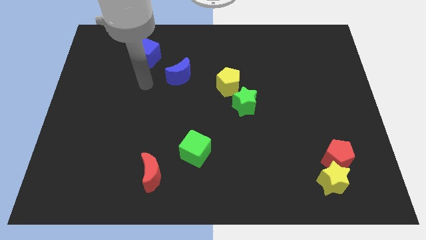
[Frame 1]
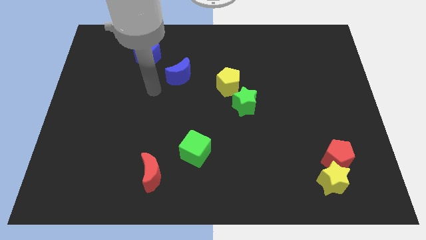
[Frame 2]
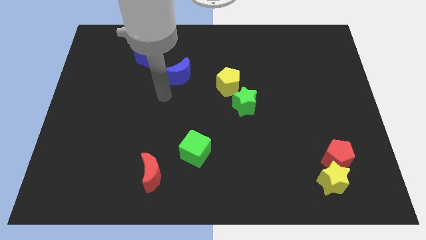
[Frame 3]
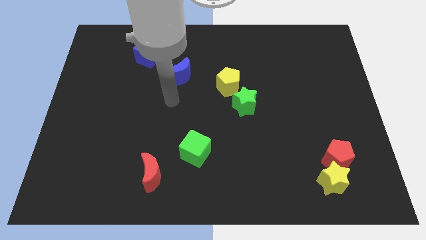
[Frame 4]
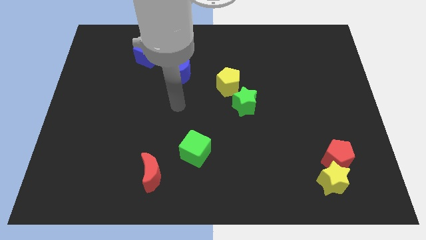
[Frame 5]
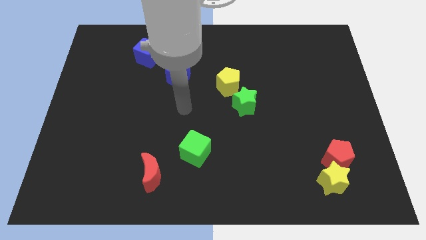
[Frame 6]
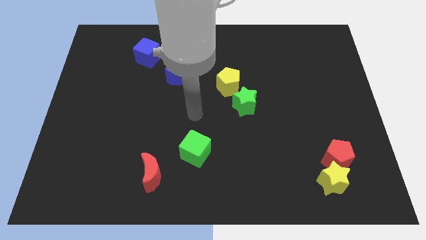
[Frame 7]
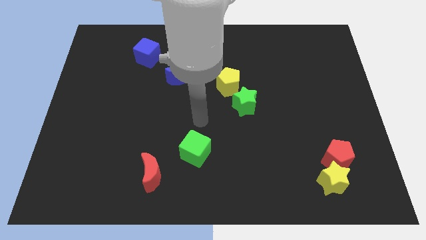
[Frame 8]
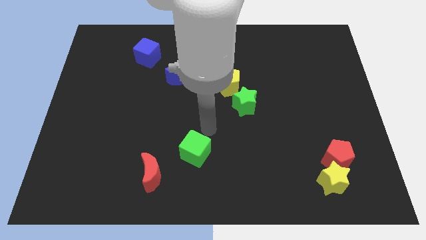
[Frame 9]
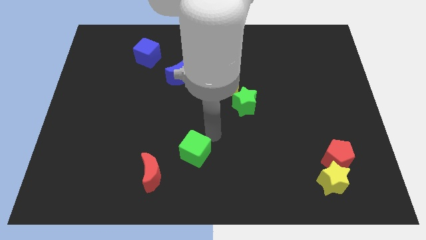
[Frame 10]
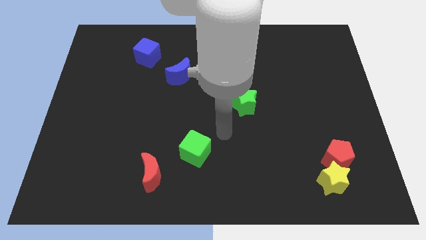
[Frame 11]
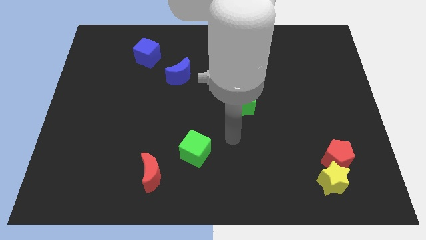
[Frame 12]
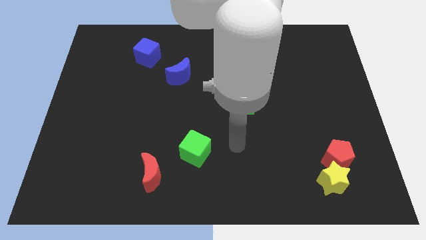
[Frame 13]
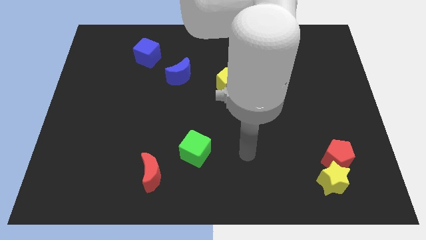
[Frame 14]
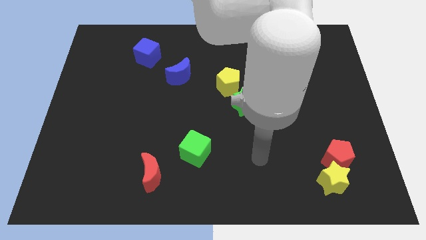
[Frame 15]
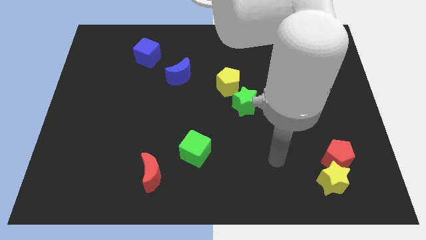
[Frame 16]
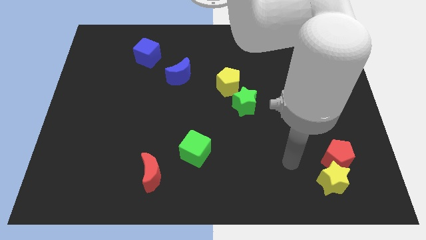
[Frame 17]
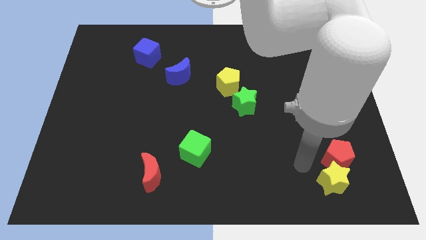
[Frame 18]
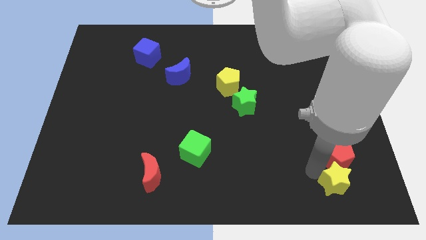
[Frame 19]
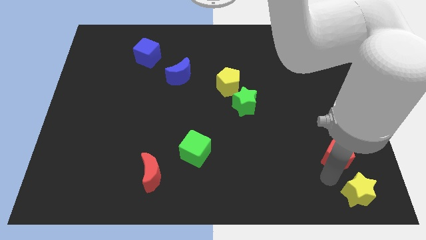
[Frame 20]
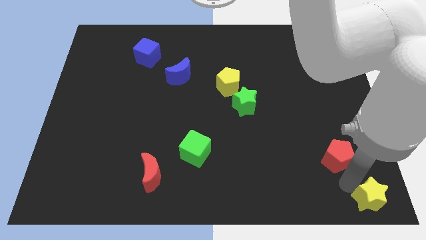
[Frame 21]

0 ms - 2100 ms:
separate the red pentagon from the yellow star

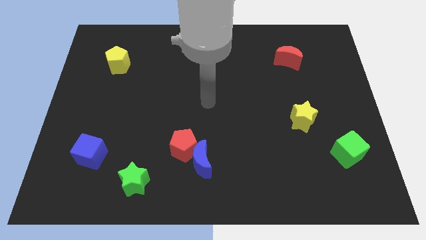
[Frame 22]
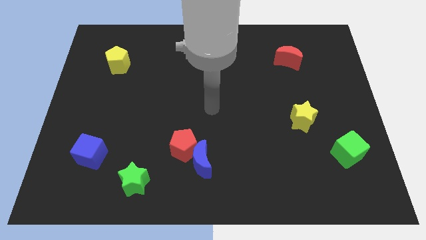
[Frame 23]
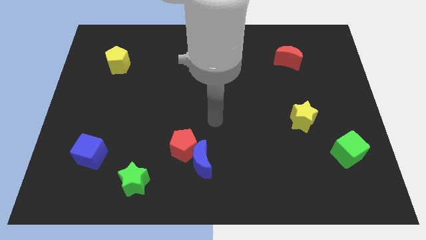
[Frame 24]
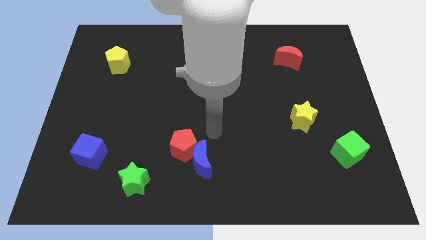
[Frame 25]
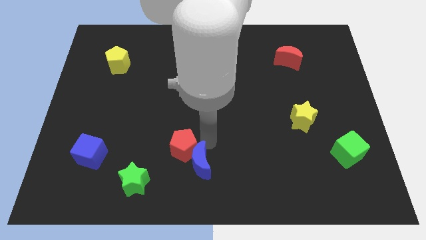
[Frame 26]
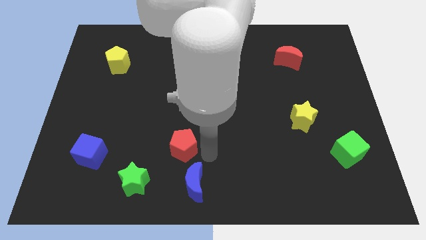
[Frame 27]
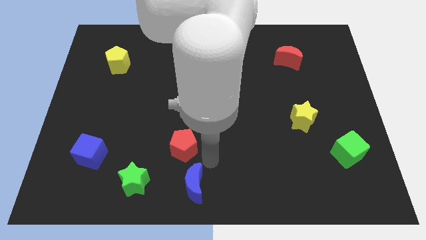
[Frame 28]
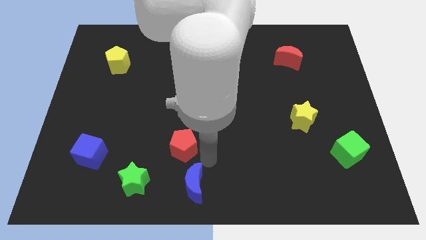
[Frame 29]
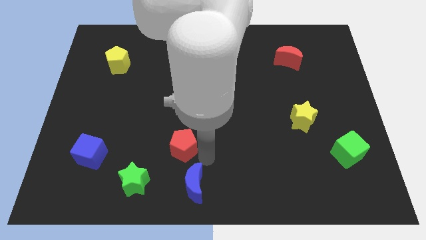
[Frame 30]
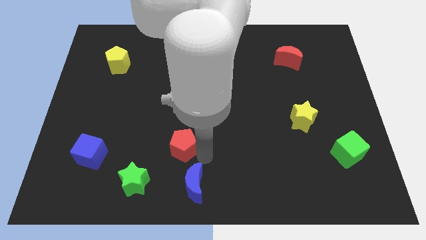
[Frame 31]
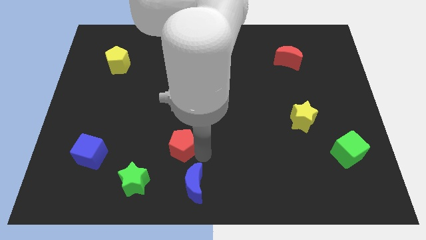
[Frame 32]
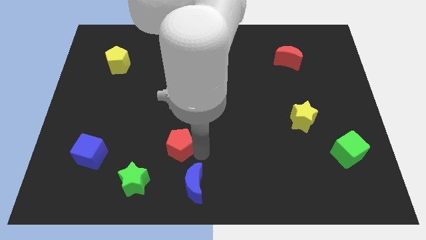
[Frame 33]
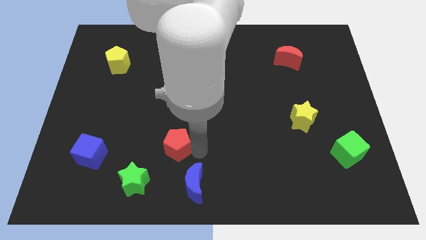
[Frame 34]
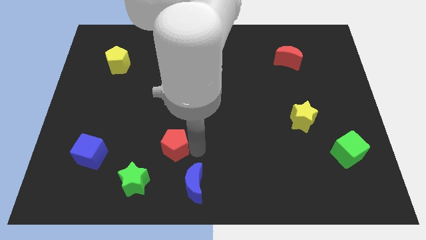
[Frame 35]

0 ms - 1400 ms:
separate the red pentagon from the blue moon

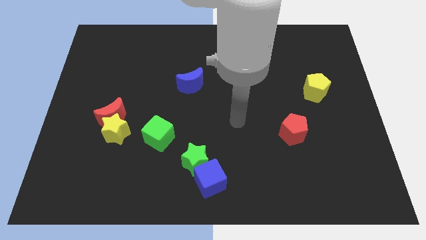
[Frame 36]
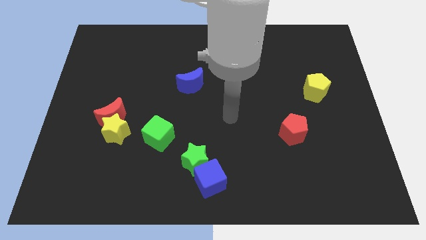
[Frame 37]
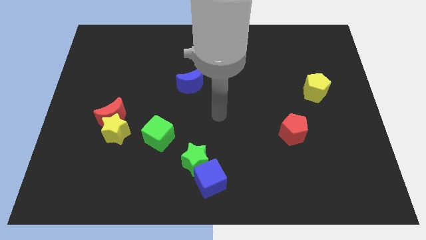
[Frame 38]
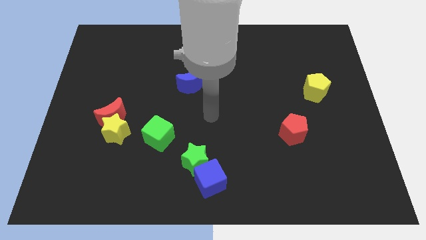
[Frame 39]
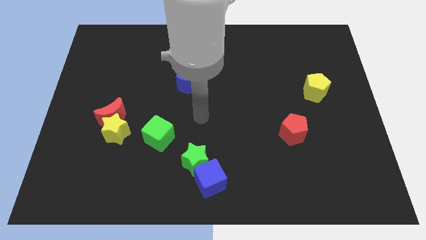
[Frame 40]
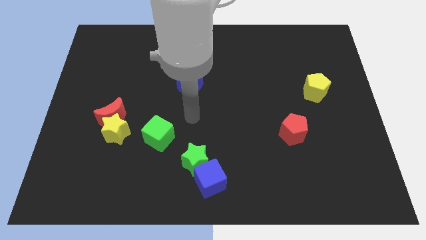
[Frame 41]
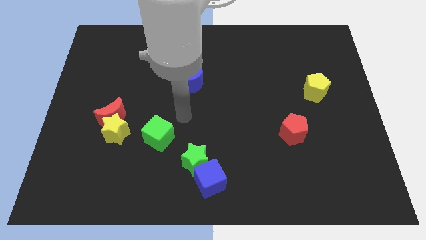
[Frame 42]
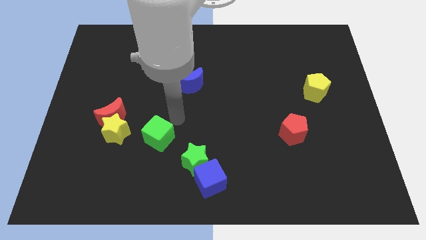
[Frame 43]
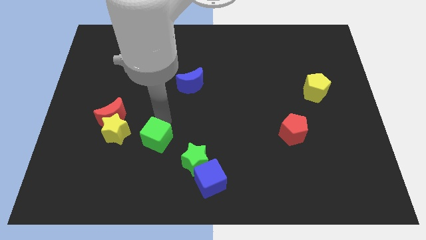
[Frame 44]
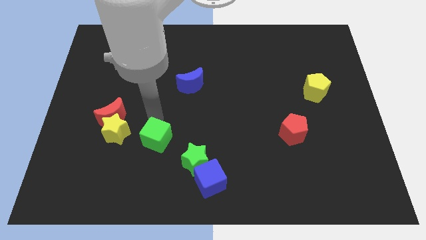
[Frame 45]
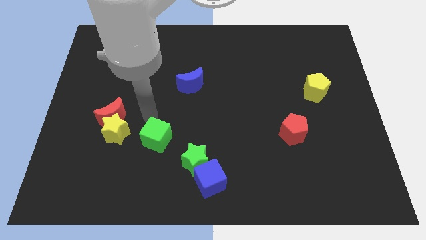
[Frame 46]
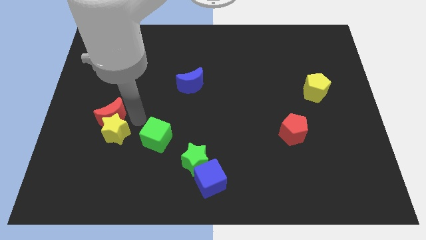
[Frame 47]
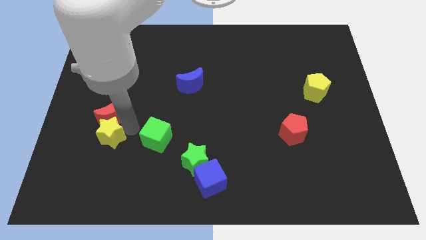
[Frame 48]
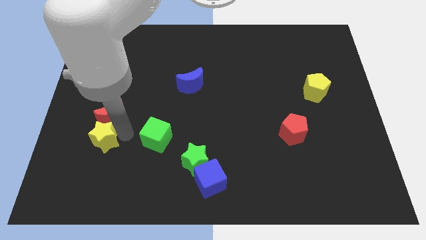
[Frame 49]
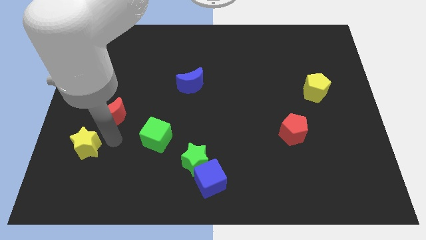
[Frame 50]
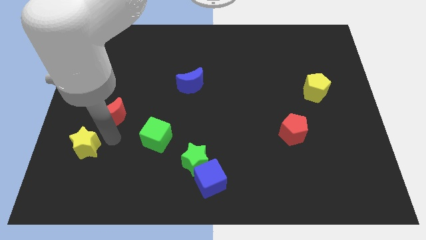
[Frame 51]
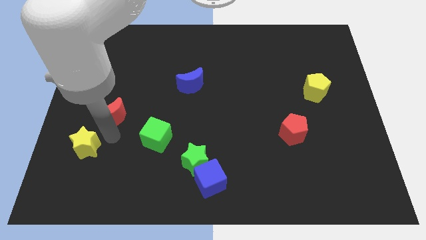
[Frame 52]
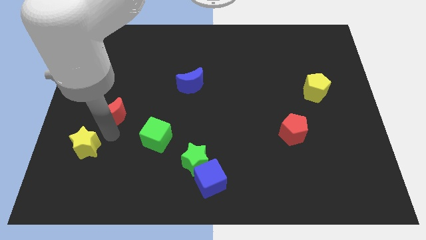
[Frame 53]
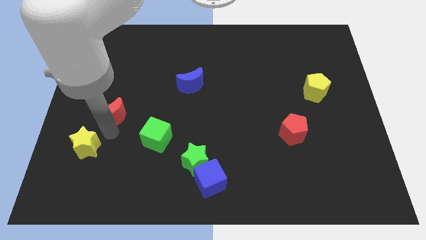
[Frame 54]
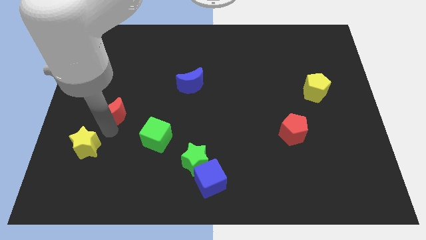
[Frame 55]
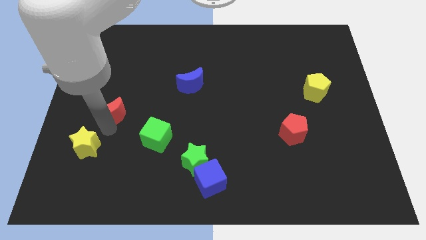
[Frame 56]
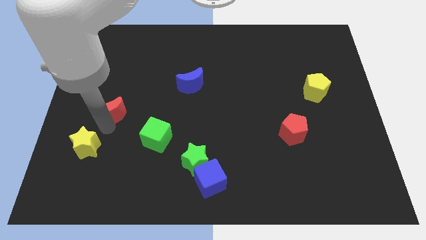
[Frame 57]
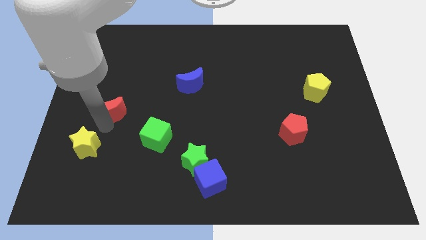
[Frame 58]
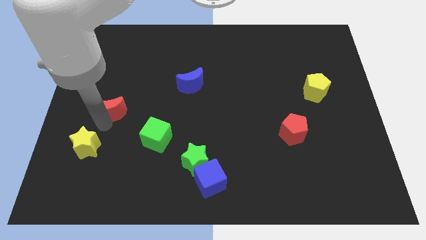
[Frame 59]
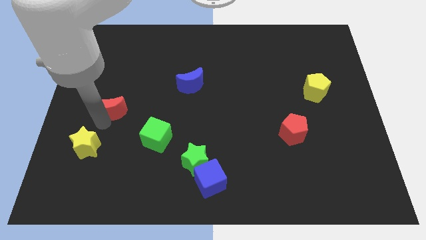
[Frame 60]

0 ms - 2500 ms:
pull the red moon apart from the yellow star

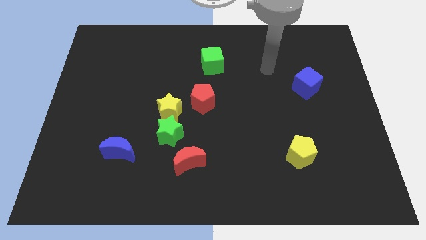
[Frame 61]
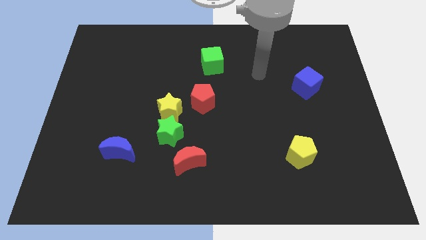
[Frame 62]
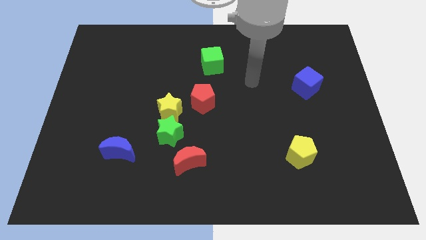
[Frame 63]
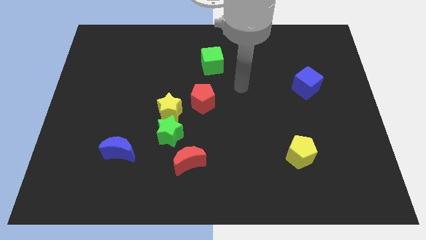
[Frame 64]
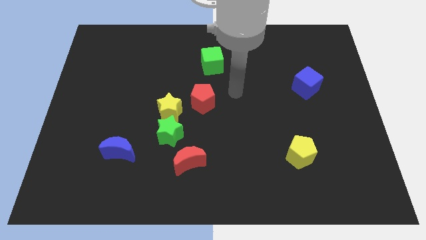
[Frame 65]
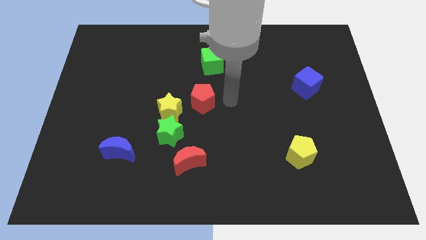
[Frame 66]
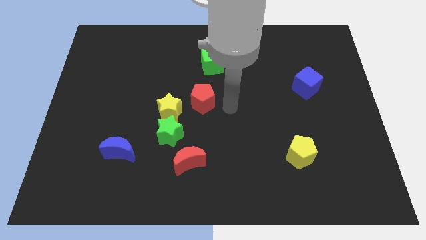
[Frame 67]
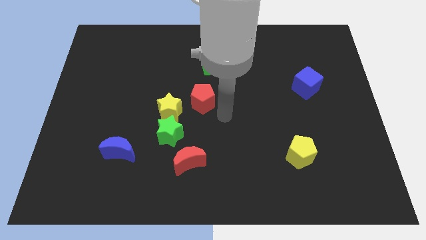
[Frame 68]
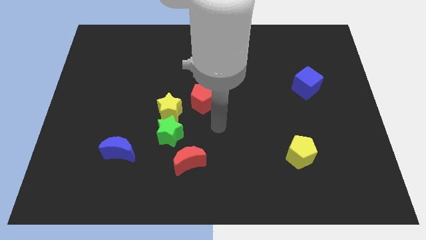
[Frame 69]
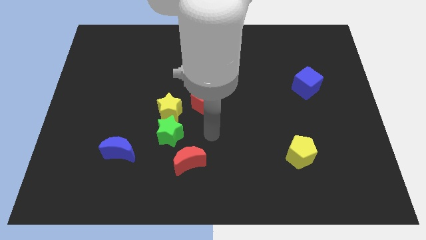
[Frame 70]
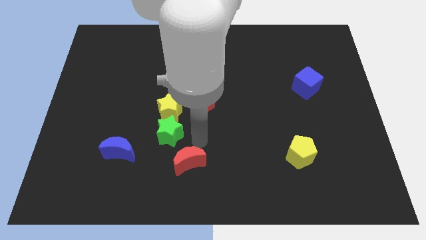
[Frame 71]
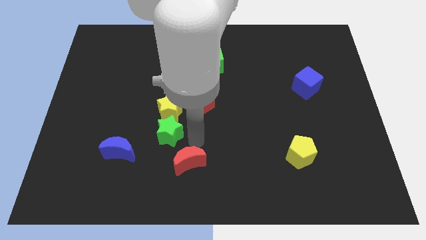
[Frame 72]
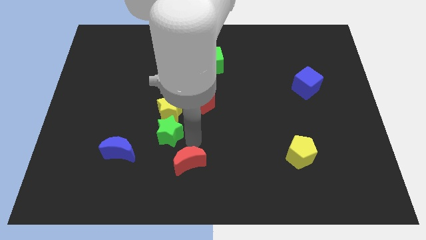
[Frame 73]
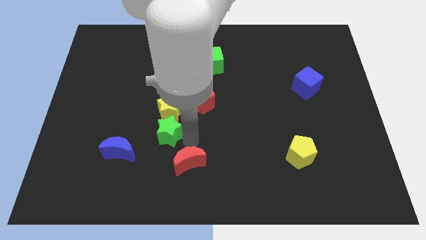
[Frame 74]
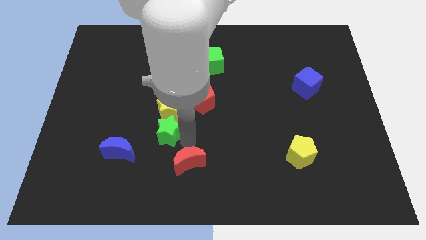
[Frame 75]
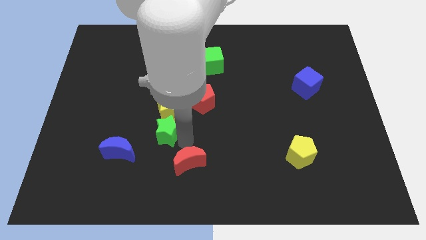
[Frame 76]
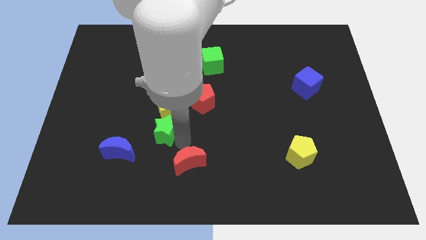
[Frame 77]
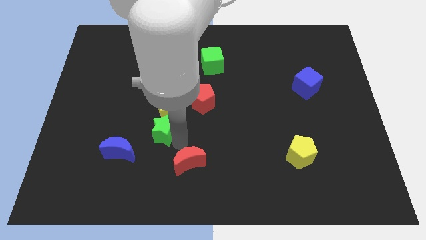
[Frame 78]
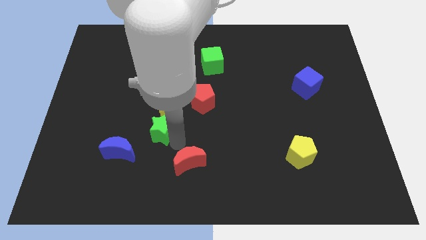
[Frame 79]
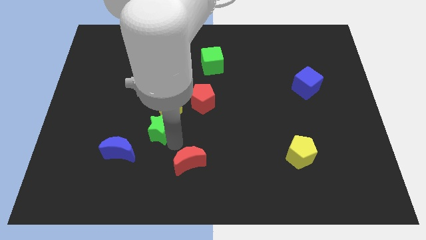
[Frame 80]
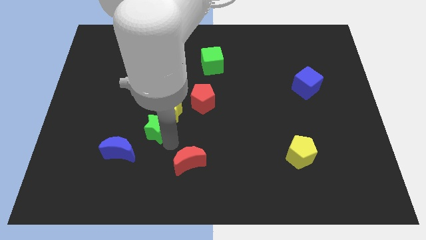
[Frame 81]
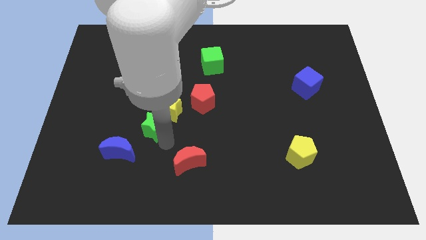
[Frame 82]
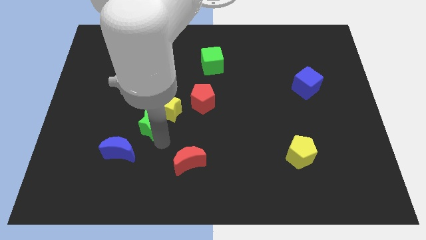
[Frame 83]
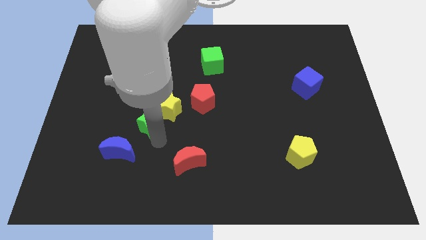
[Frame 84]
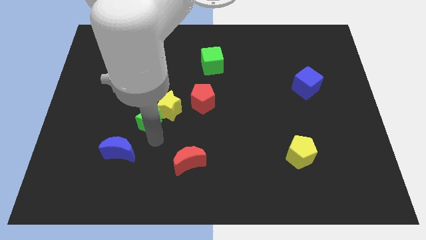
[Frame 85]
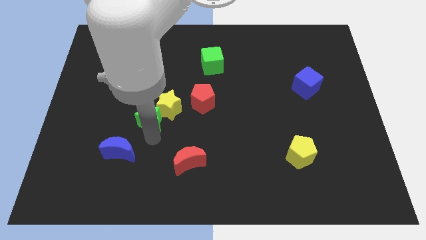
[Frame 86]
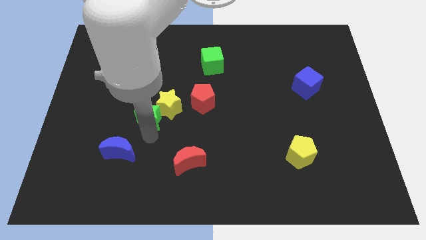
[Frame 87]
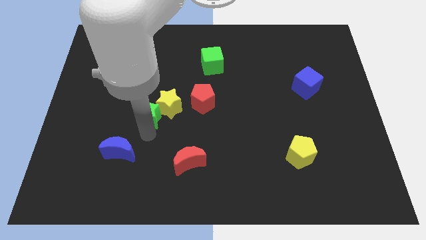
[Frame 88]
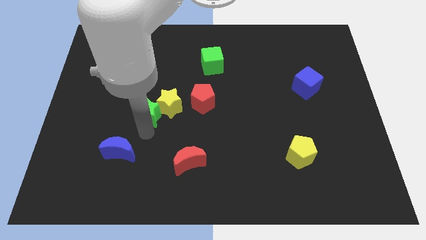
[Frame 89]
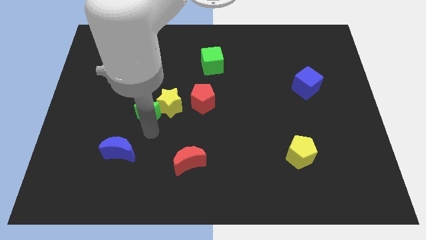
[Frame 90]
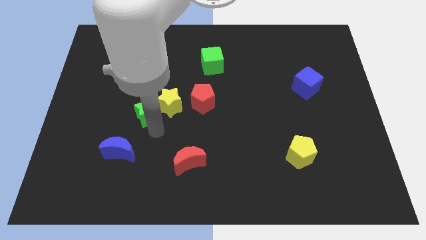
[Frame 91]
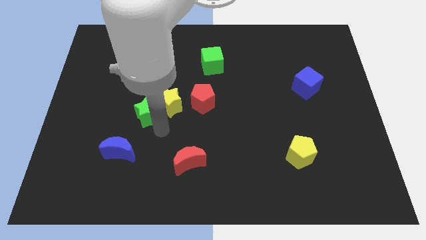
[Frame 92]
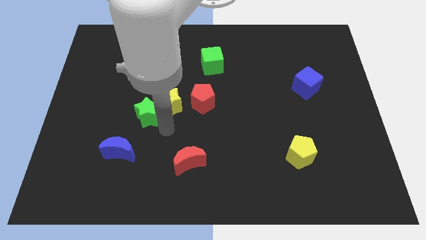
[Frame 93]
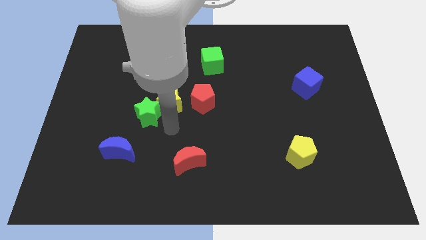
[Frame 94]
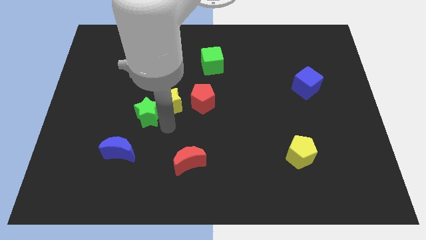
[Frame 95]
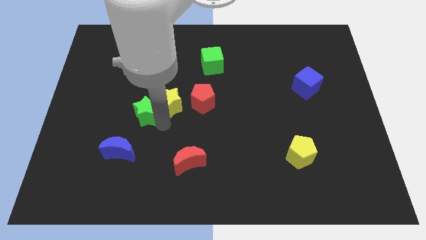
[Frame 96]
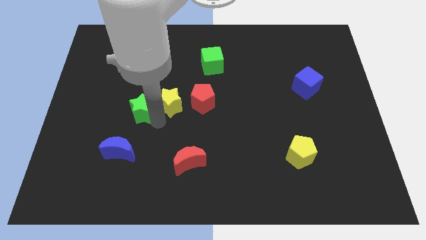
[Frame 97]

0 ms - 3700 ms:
pull the green star apart from the yellow star and red moon
